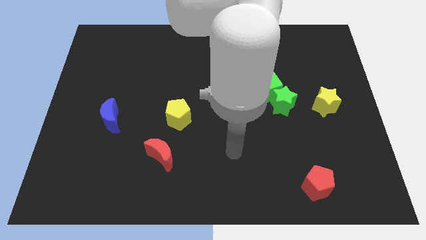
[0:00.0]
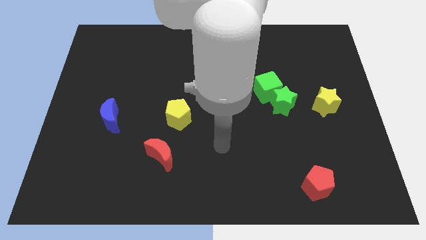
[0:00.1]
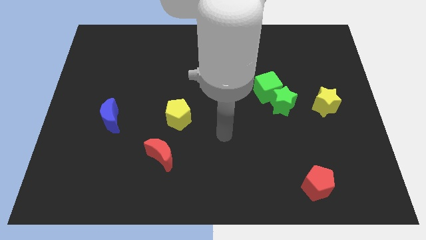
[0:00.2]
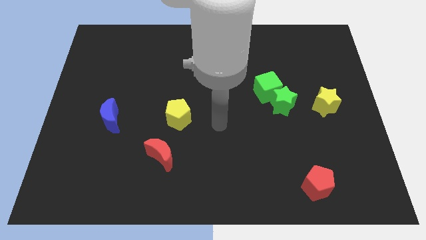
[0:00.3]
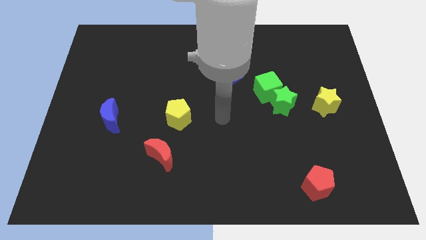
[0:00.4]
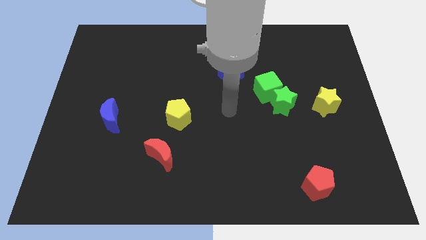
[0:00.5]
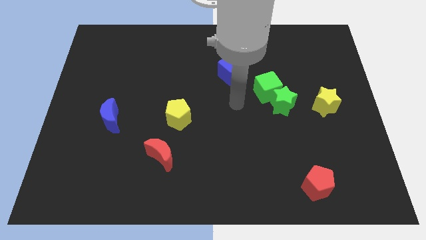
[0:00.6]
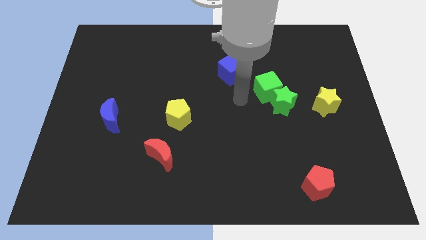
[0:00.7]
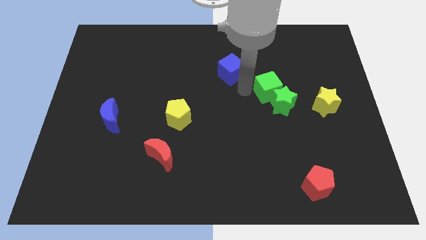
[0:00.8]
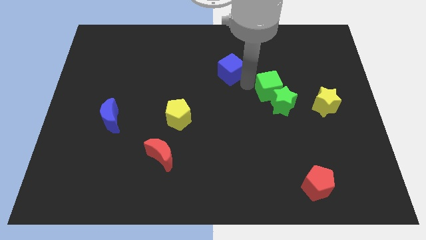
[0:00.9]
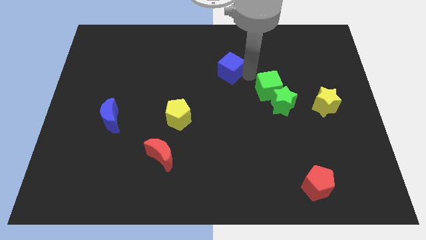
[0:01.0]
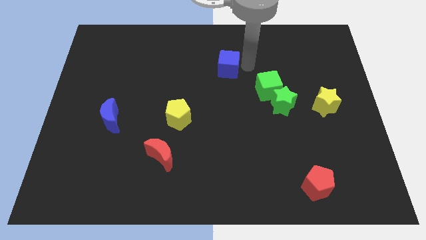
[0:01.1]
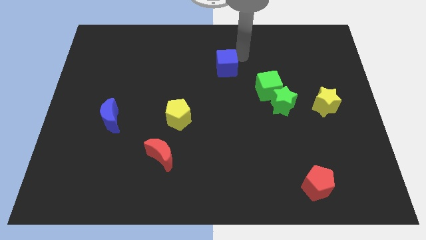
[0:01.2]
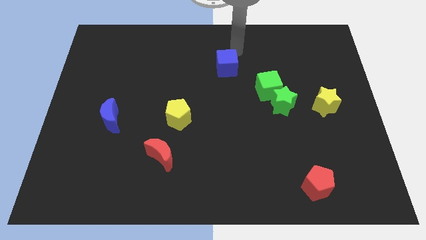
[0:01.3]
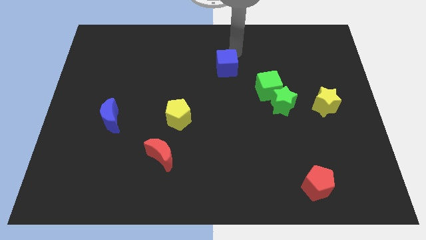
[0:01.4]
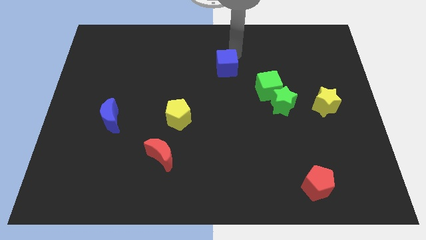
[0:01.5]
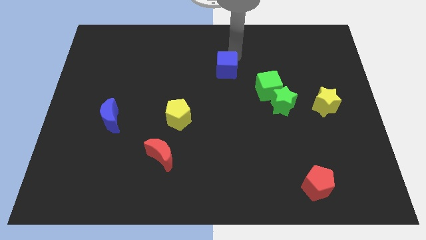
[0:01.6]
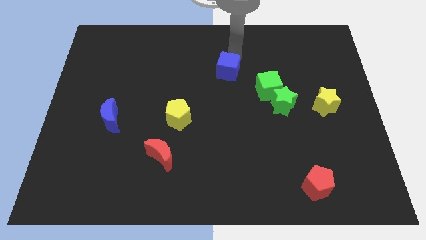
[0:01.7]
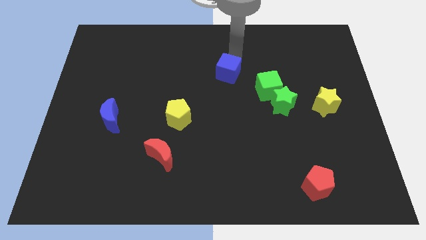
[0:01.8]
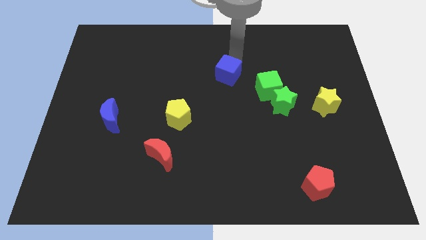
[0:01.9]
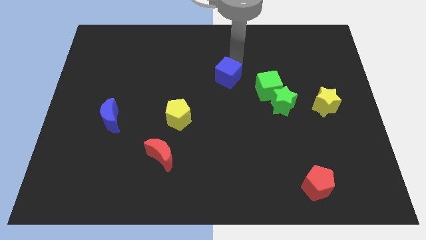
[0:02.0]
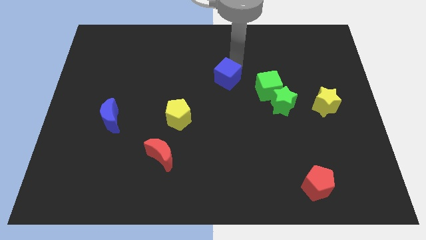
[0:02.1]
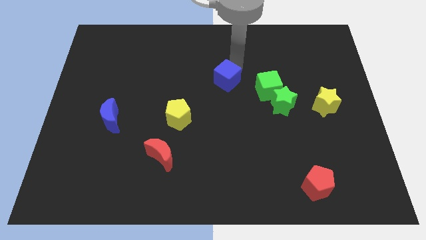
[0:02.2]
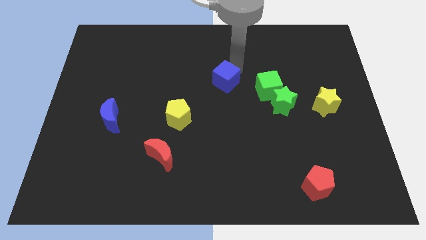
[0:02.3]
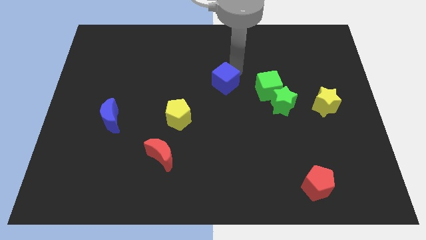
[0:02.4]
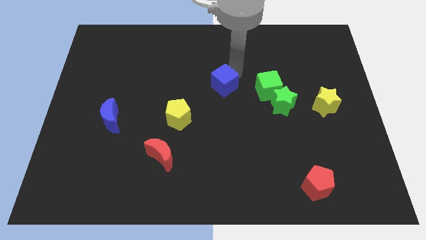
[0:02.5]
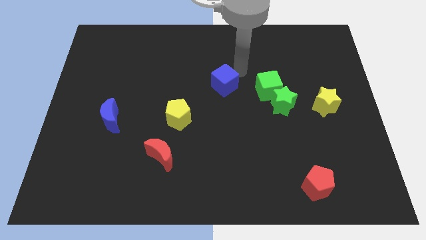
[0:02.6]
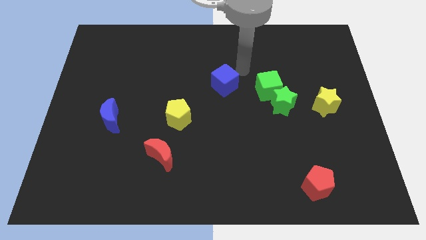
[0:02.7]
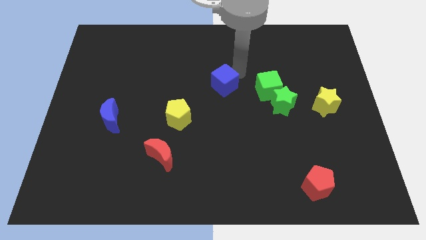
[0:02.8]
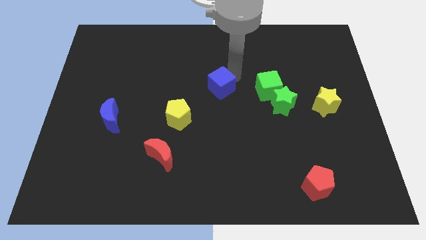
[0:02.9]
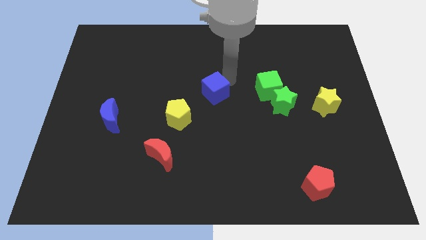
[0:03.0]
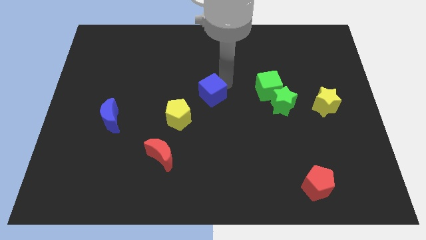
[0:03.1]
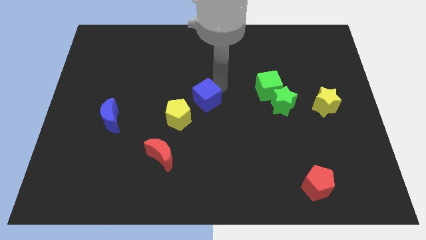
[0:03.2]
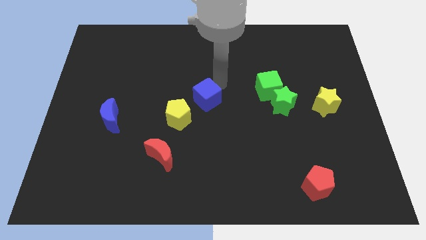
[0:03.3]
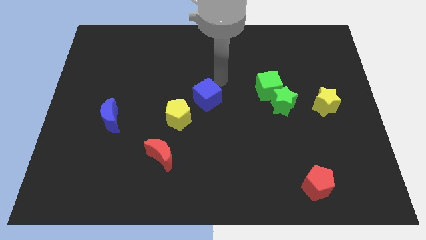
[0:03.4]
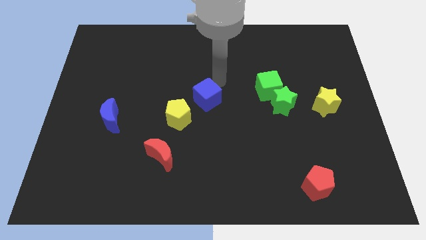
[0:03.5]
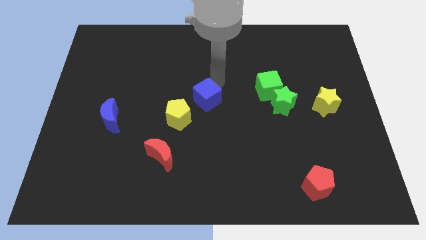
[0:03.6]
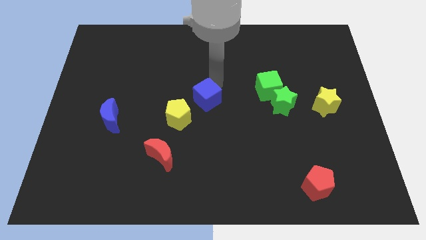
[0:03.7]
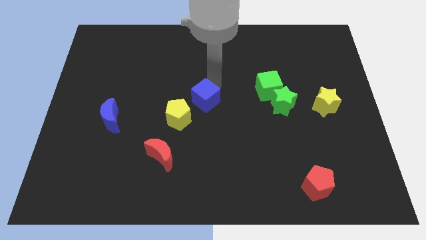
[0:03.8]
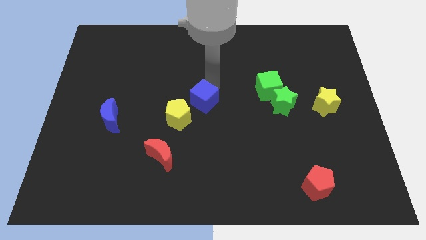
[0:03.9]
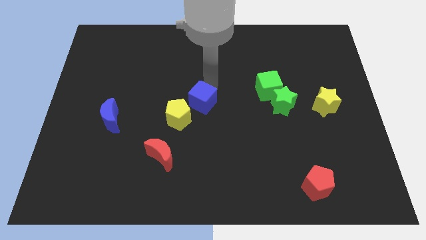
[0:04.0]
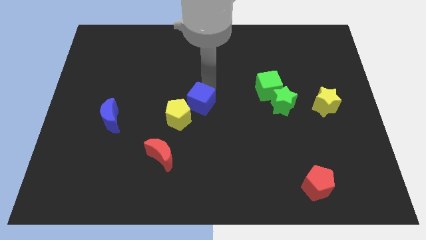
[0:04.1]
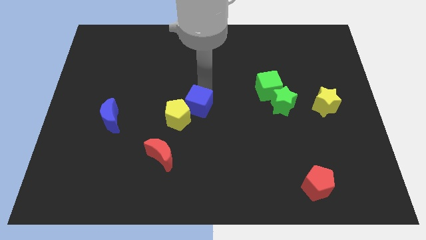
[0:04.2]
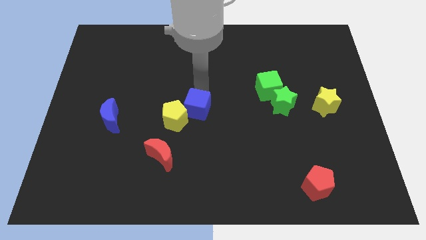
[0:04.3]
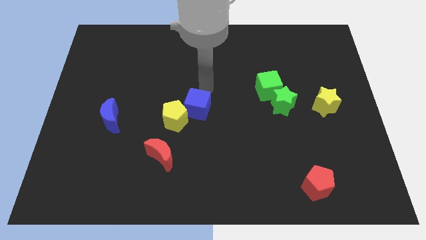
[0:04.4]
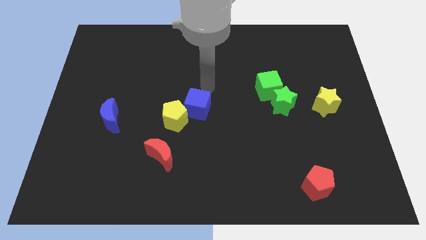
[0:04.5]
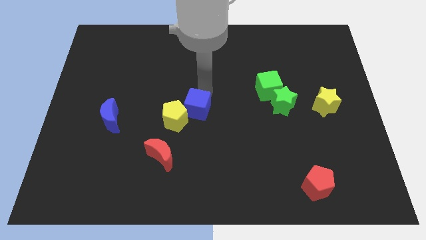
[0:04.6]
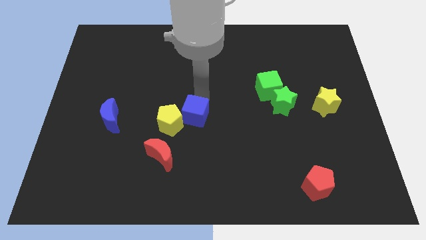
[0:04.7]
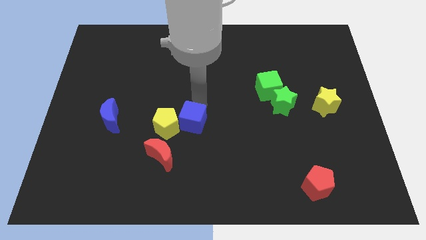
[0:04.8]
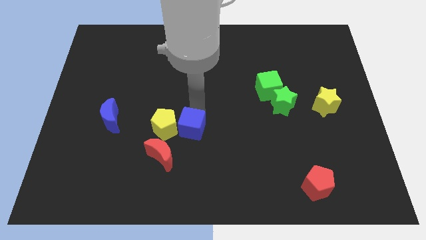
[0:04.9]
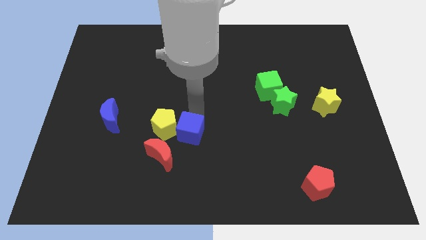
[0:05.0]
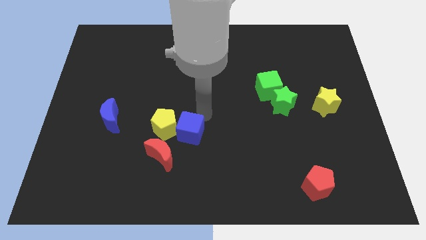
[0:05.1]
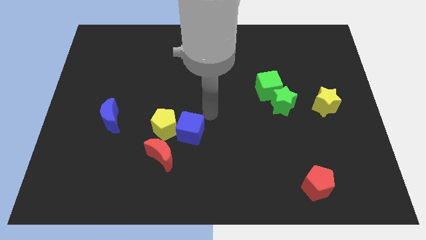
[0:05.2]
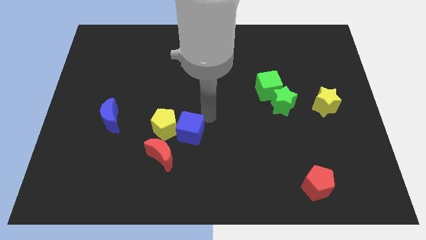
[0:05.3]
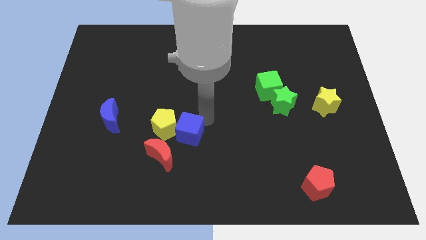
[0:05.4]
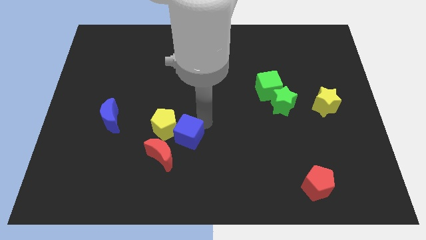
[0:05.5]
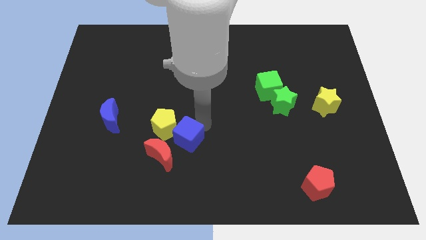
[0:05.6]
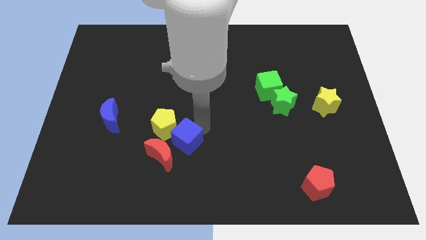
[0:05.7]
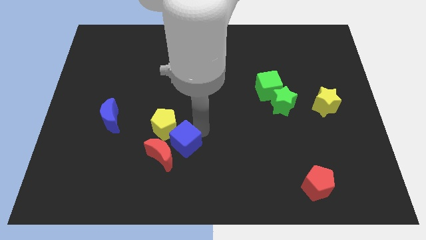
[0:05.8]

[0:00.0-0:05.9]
put the blue cube close to the red moon

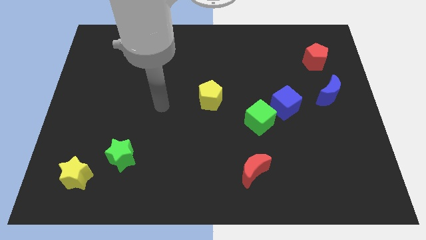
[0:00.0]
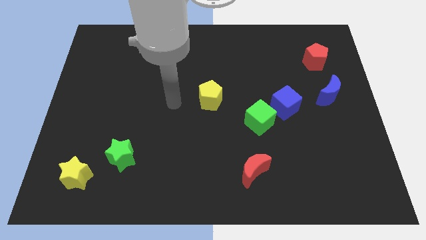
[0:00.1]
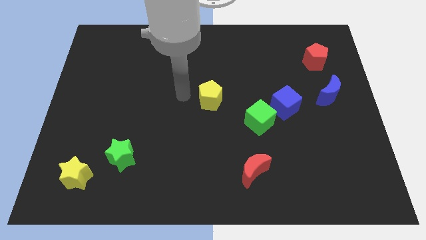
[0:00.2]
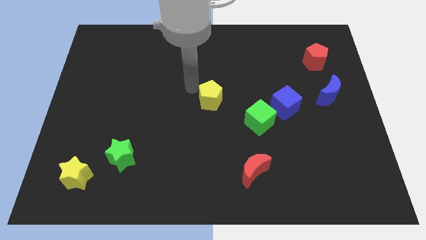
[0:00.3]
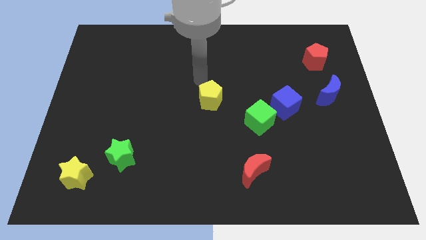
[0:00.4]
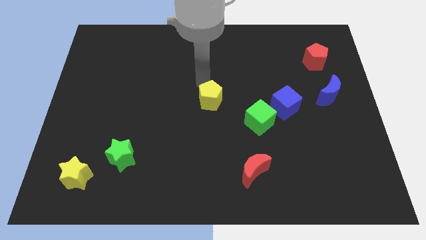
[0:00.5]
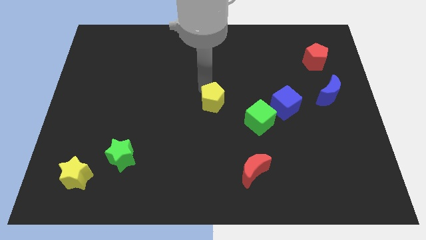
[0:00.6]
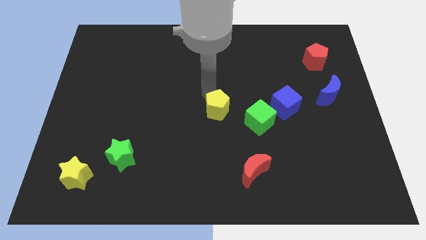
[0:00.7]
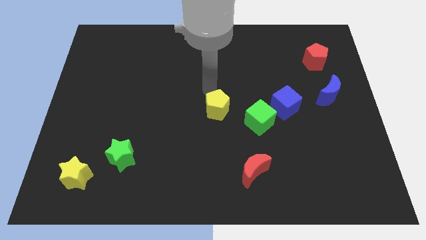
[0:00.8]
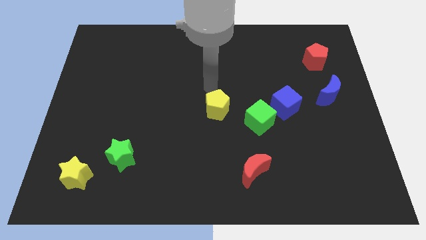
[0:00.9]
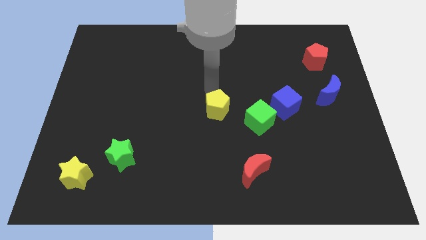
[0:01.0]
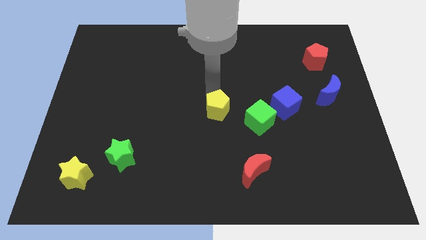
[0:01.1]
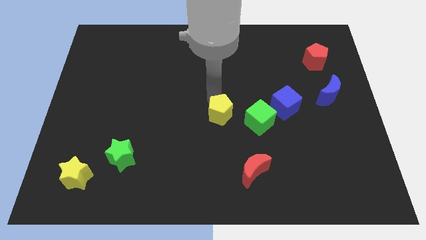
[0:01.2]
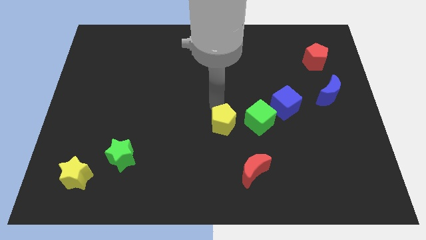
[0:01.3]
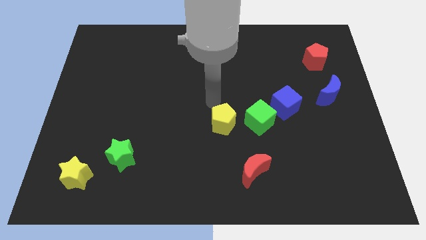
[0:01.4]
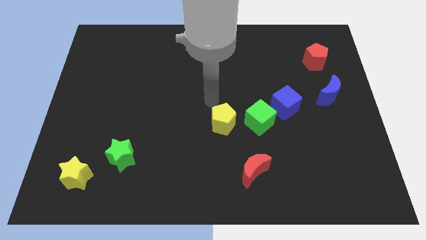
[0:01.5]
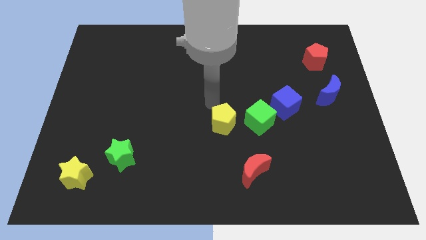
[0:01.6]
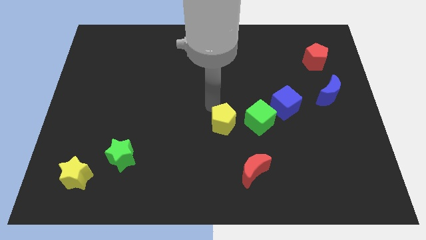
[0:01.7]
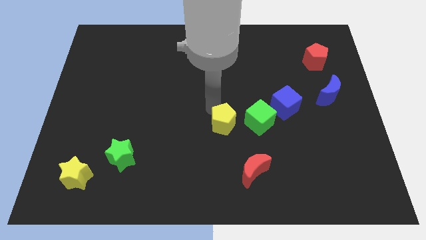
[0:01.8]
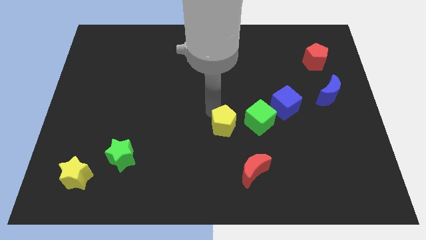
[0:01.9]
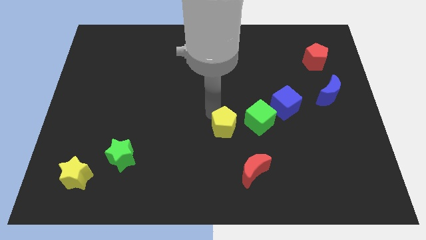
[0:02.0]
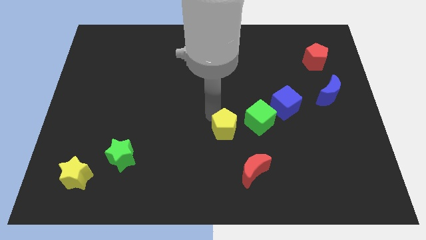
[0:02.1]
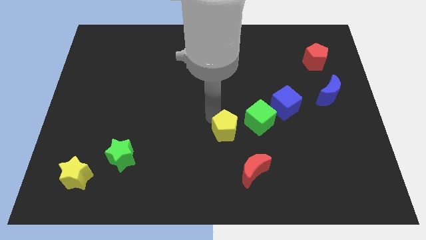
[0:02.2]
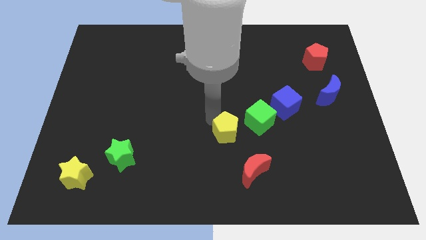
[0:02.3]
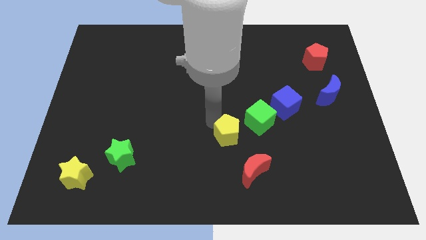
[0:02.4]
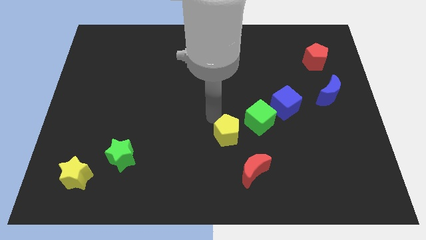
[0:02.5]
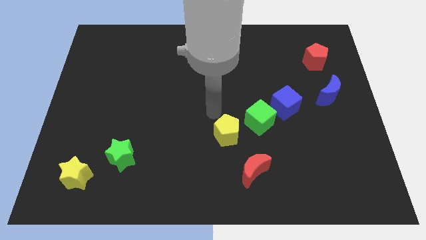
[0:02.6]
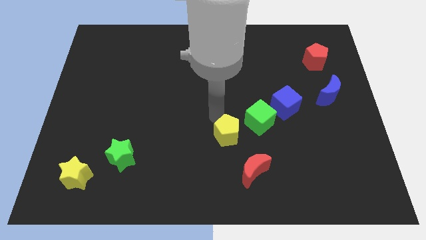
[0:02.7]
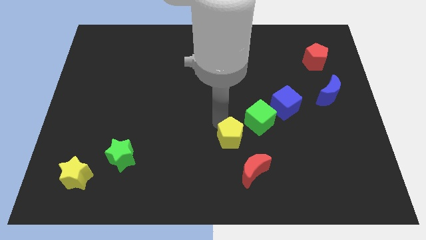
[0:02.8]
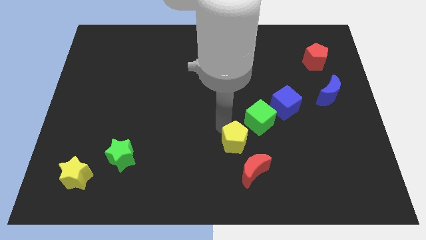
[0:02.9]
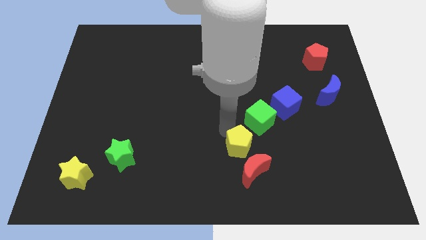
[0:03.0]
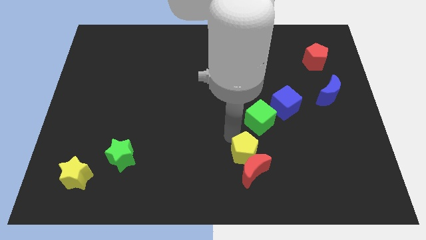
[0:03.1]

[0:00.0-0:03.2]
put the yellow pentagon close to the red moon
